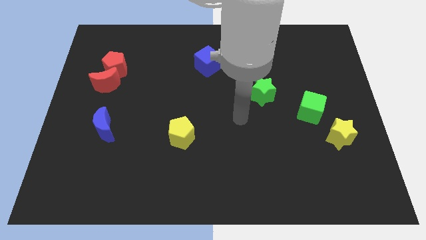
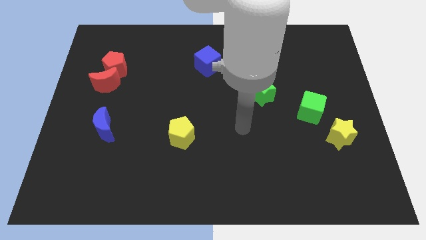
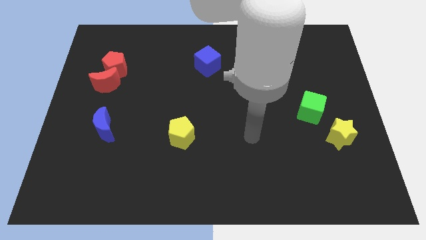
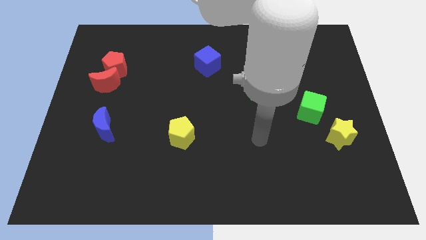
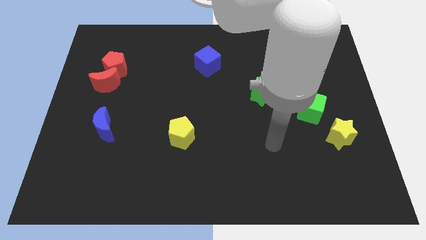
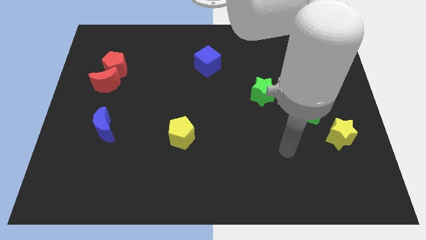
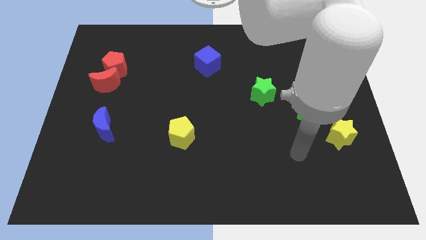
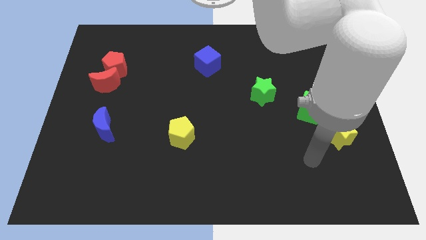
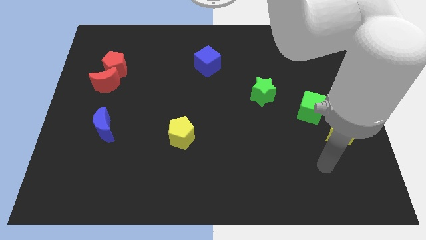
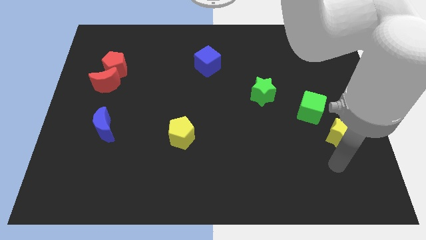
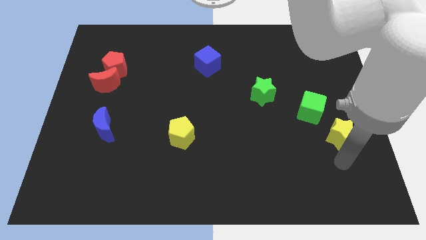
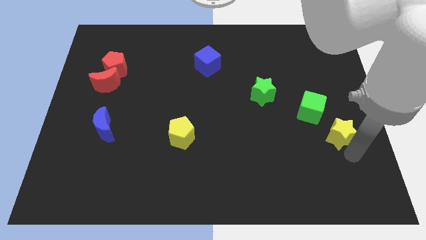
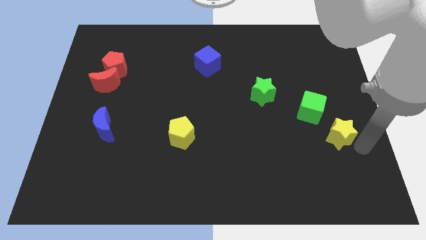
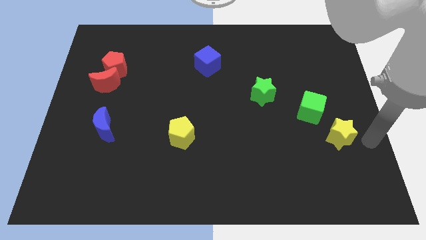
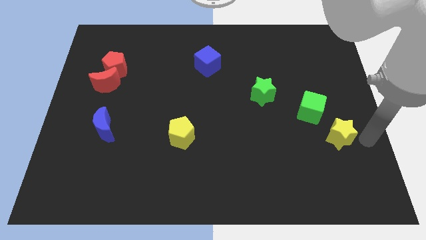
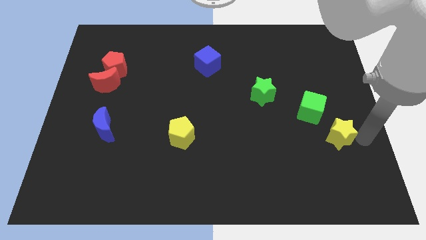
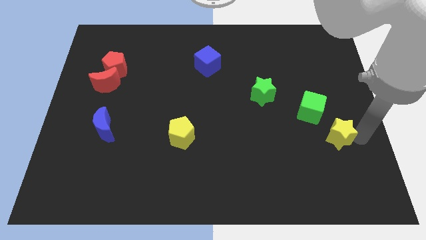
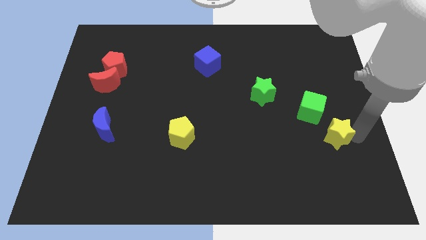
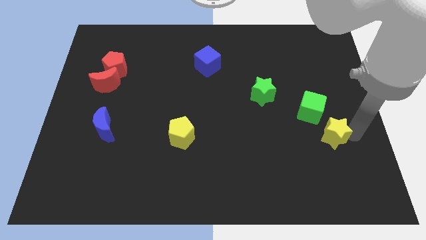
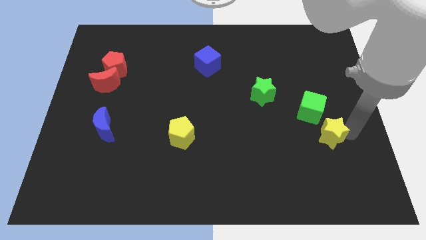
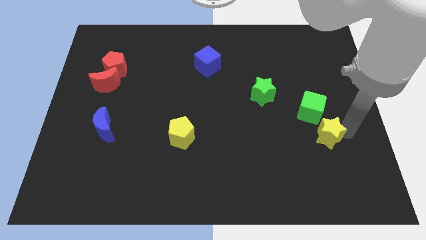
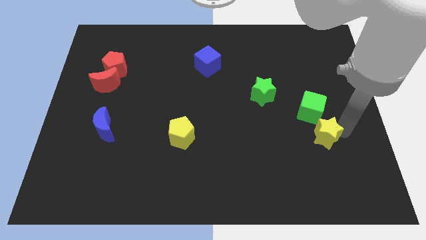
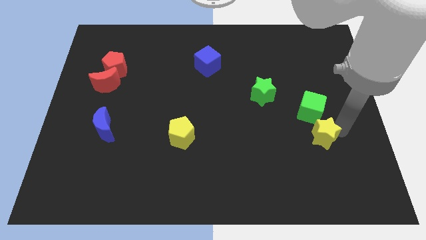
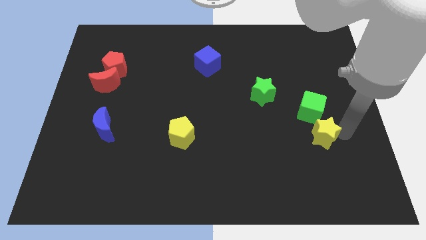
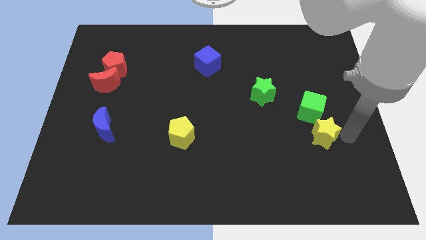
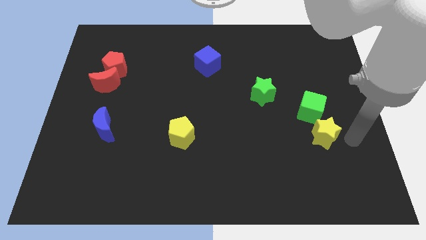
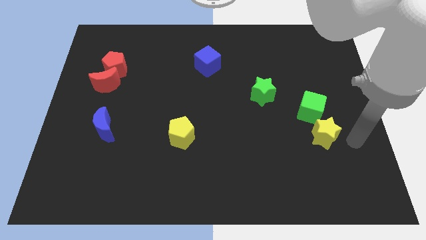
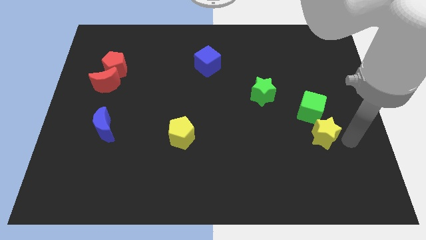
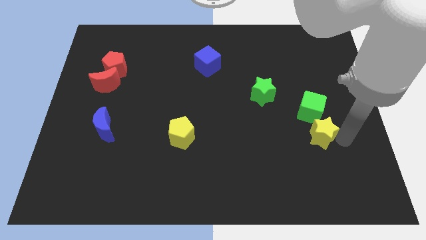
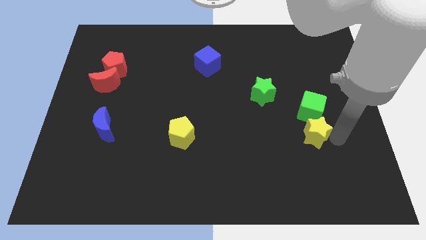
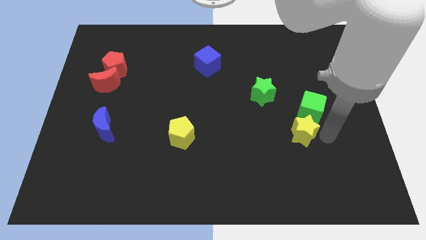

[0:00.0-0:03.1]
slightly push the yellow star to the left

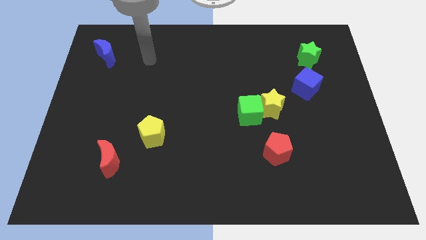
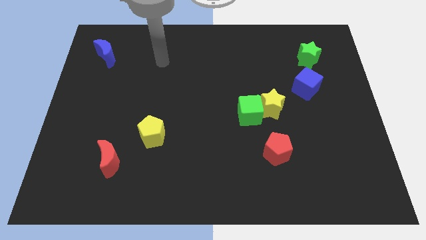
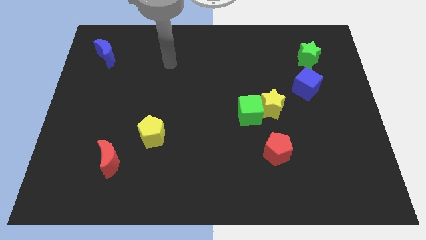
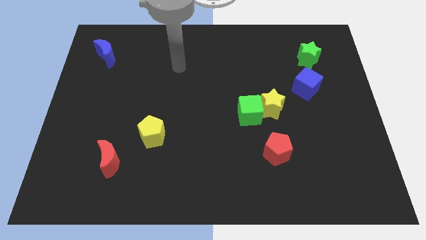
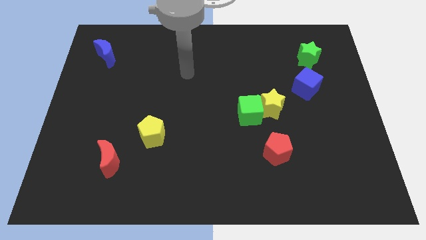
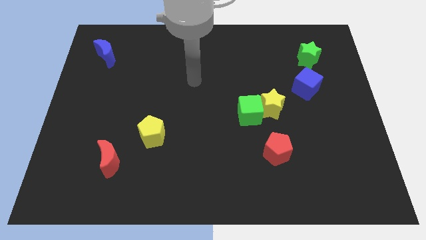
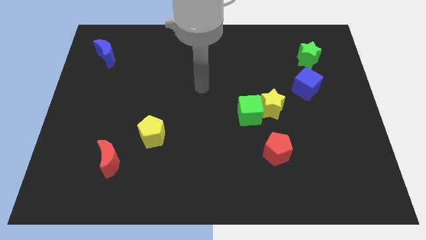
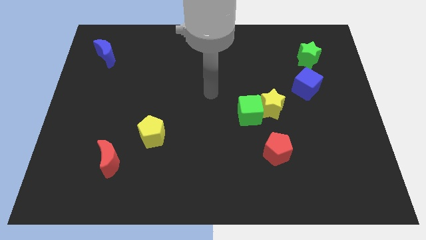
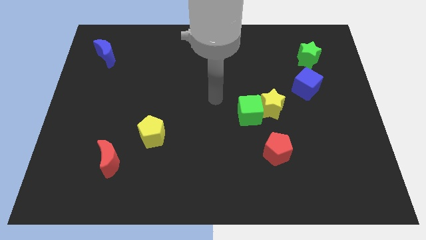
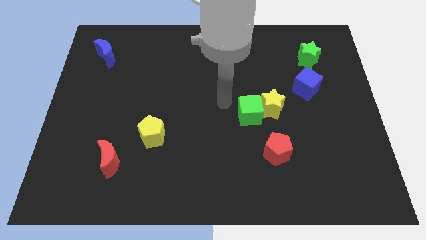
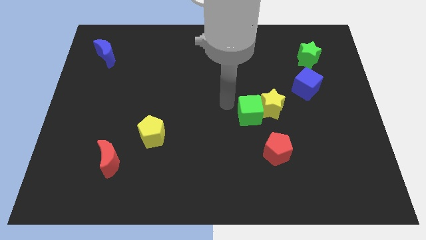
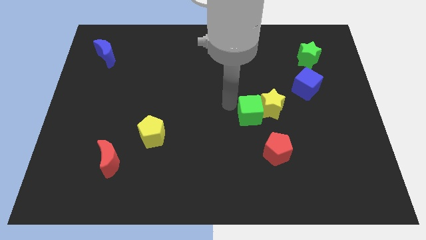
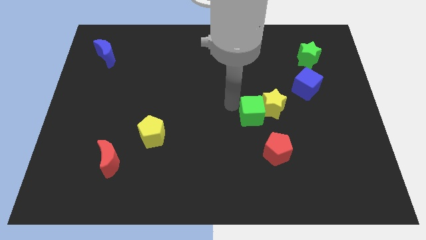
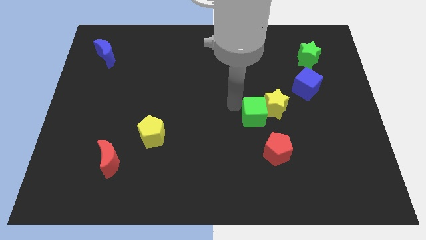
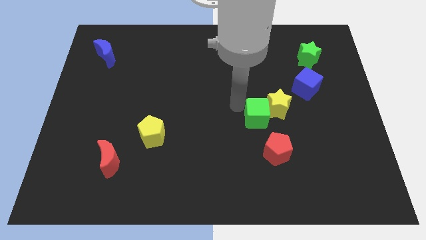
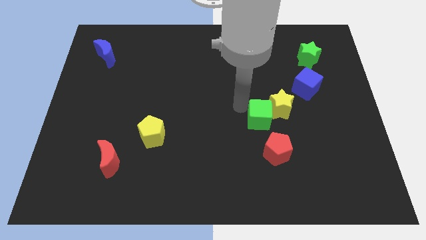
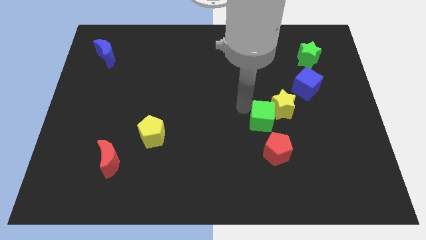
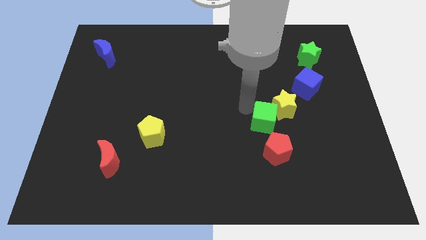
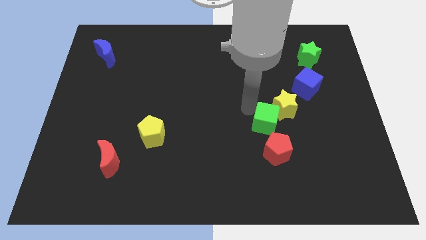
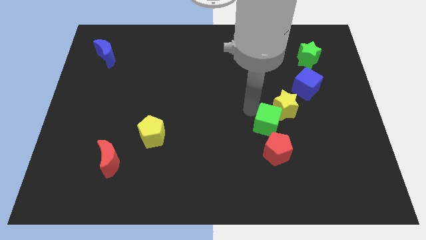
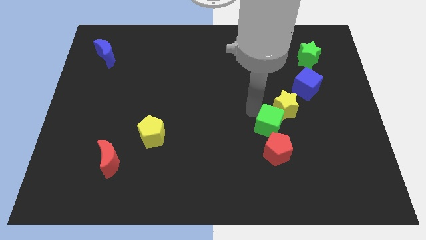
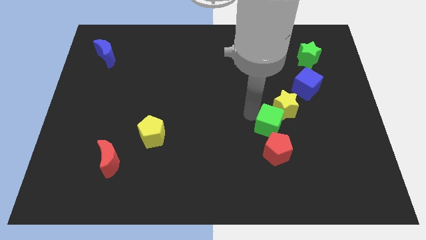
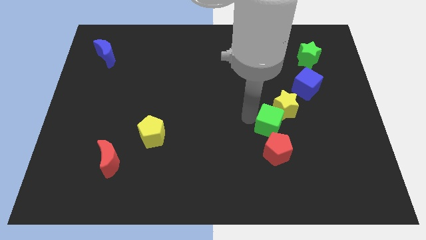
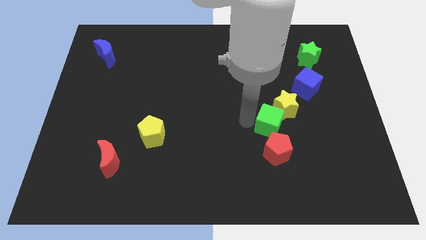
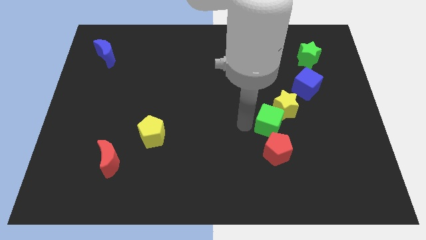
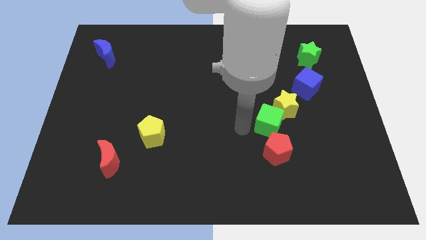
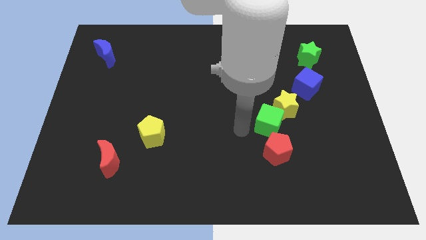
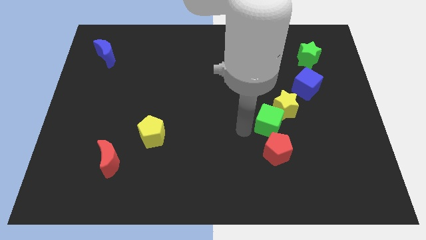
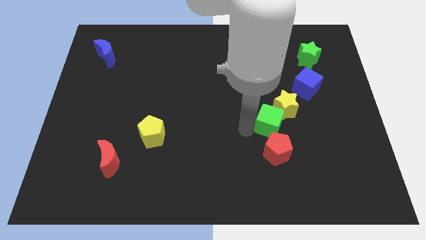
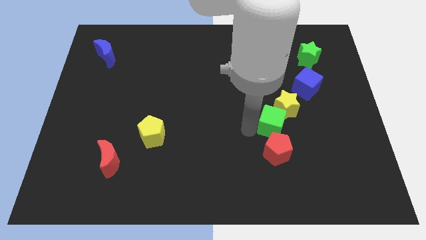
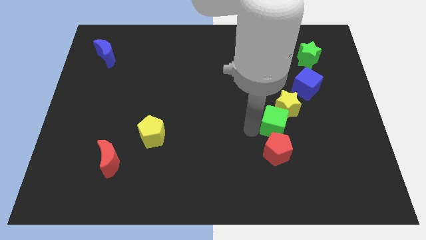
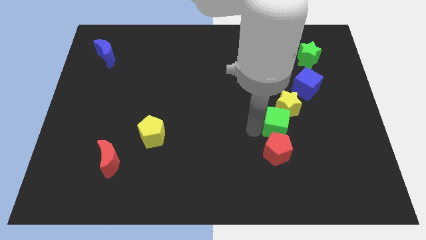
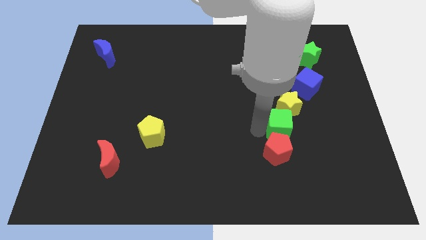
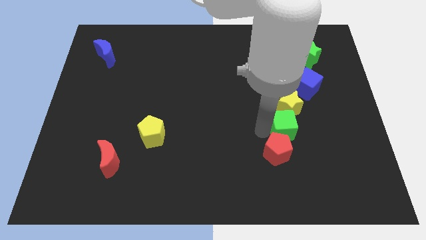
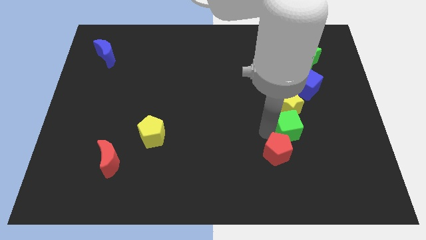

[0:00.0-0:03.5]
move the green cube slightly right

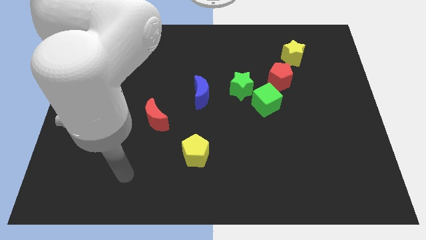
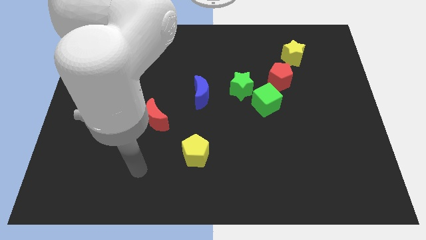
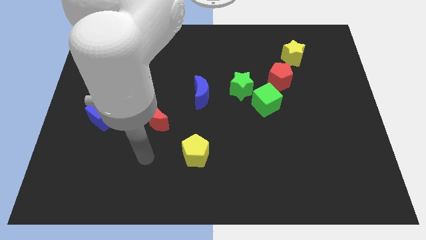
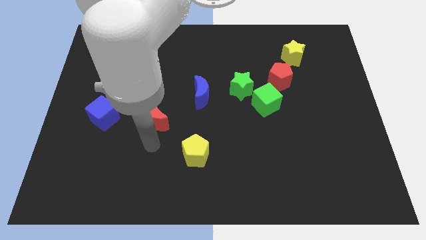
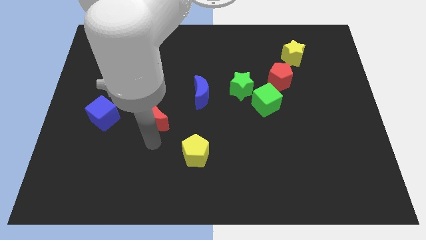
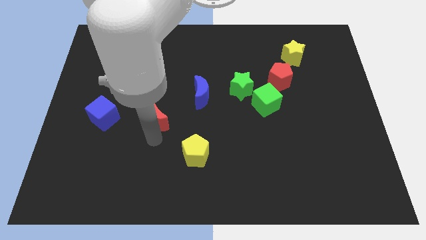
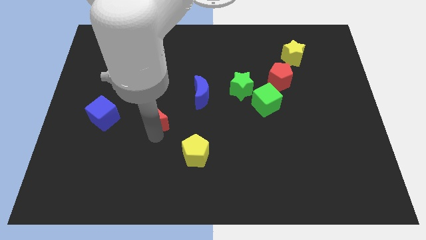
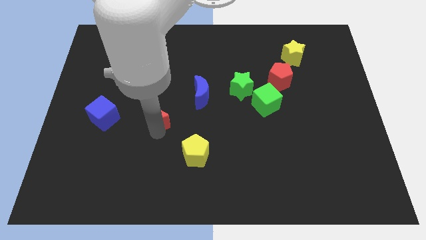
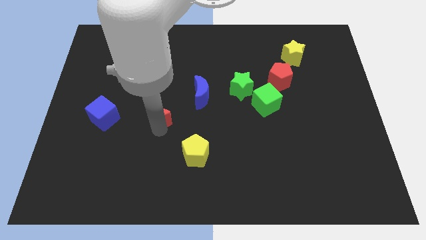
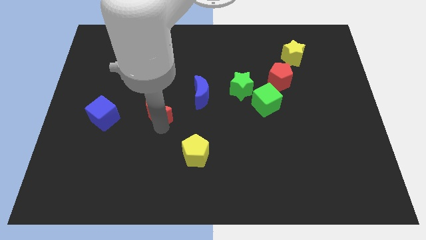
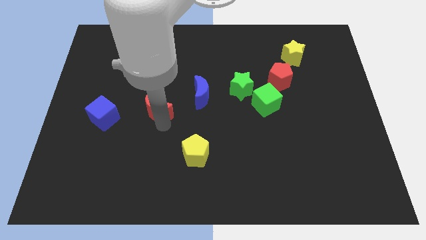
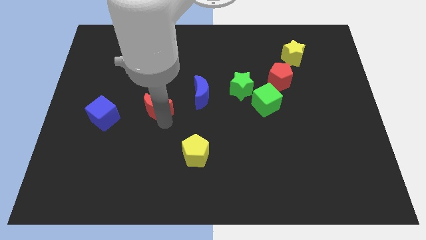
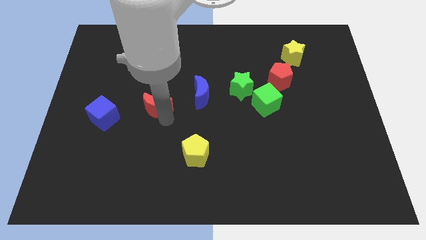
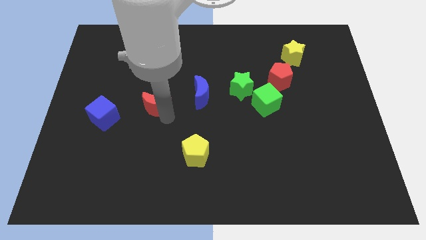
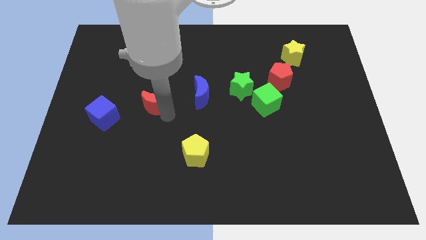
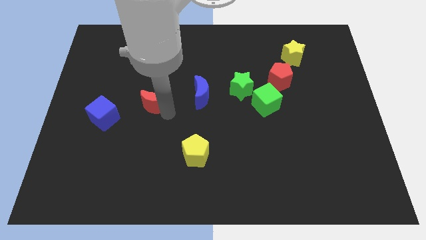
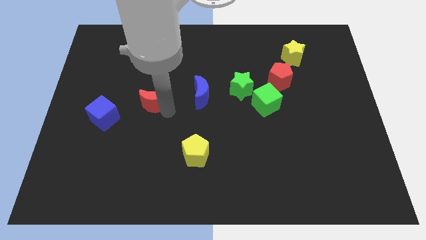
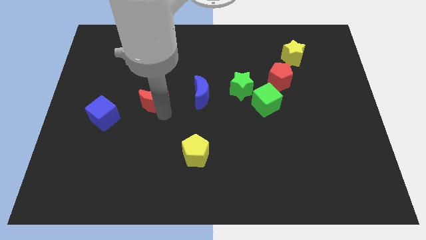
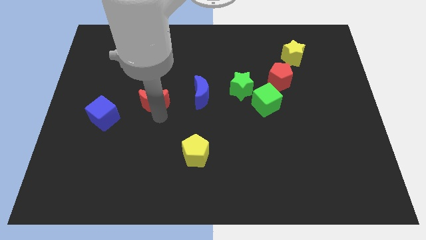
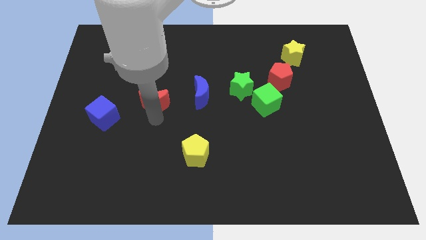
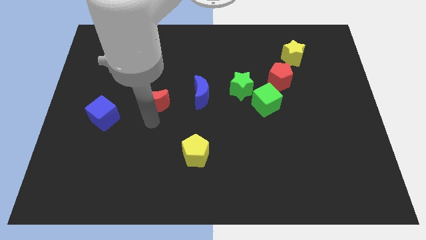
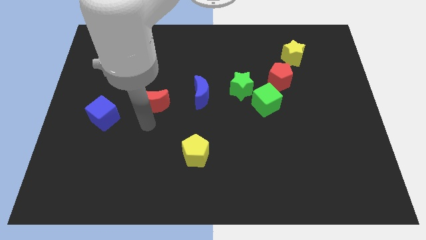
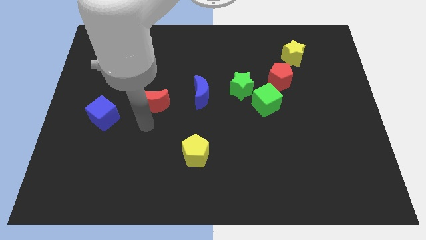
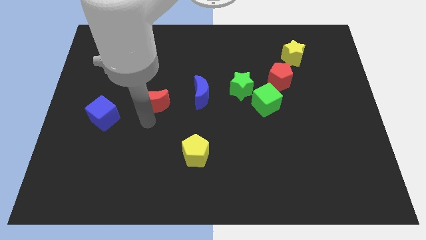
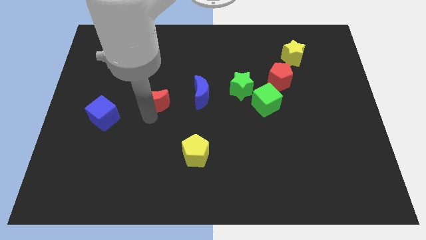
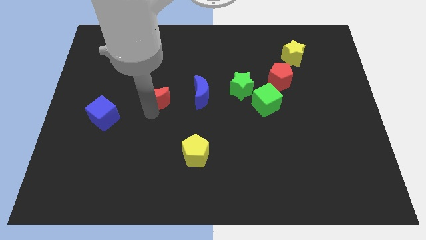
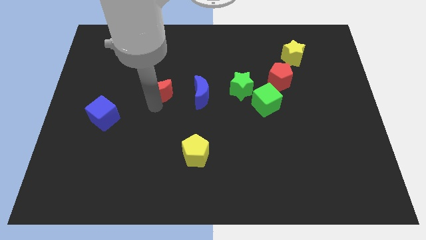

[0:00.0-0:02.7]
slide the red moon a bit up
